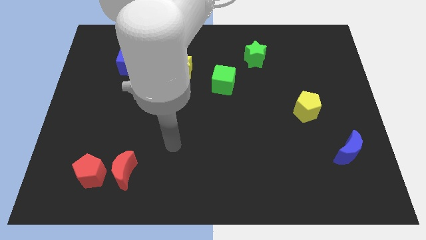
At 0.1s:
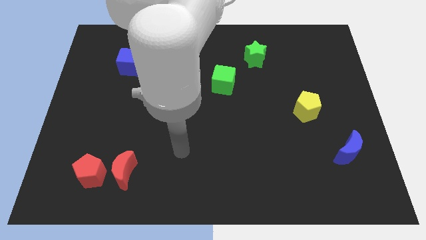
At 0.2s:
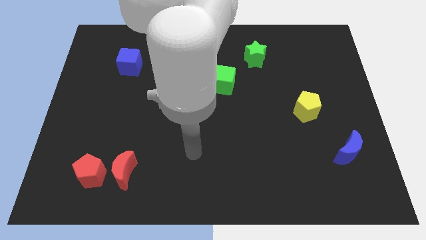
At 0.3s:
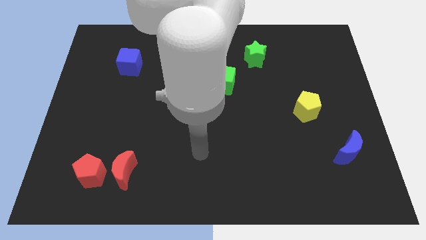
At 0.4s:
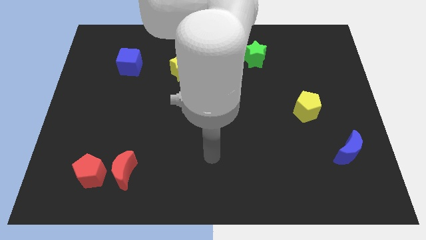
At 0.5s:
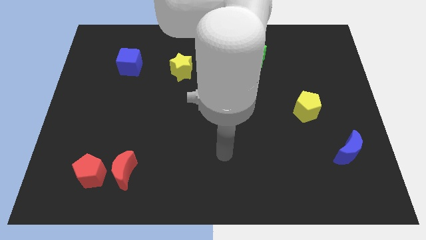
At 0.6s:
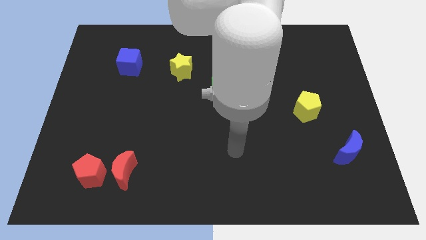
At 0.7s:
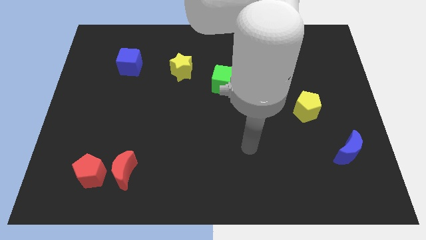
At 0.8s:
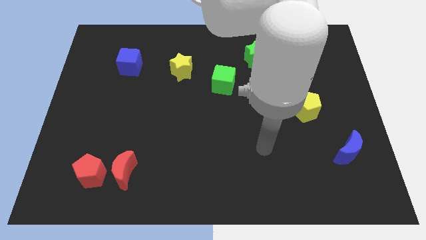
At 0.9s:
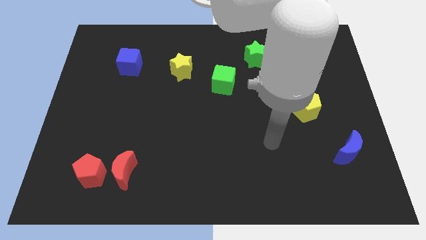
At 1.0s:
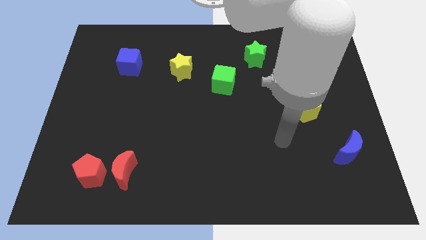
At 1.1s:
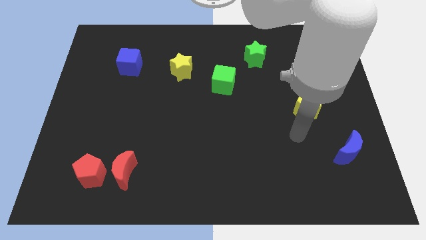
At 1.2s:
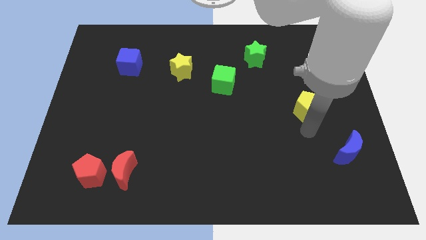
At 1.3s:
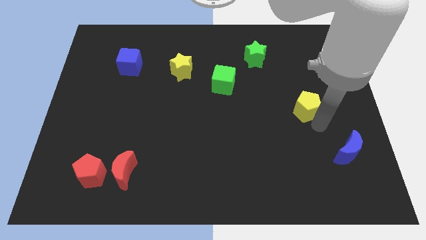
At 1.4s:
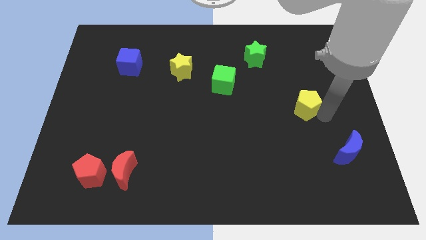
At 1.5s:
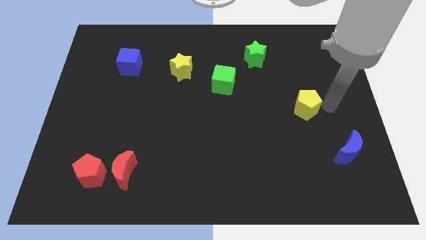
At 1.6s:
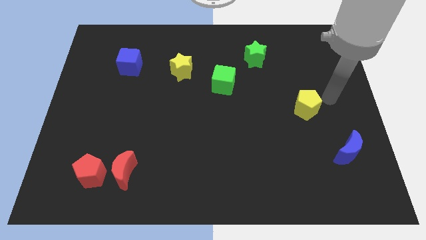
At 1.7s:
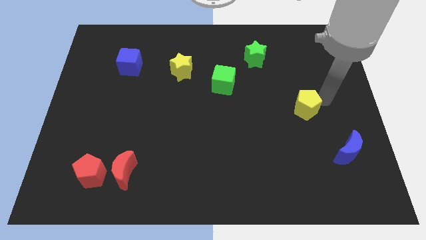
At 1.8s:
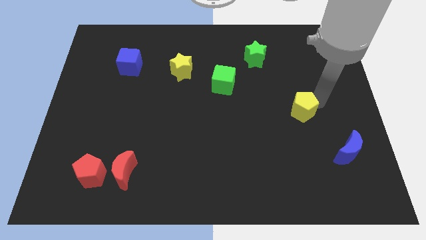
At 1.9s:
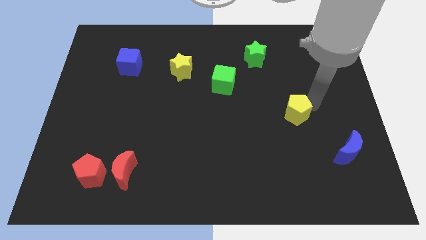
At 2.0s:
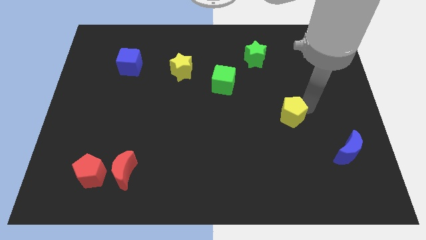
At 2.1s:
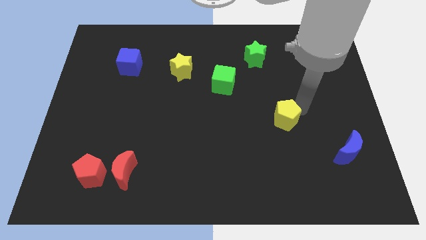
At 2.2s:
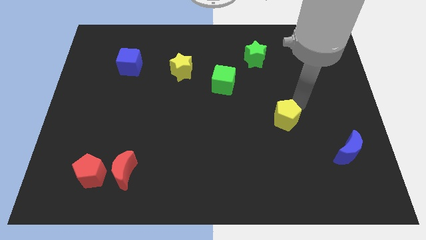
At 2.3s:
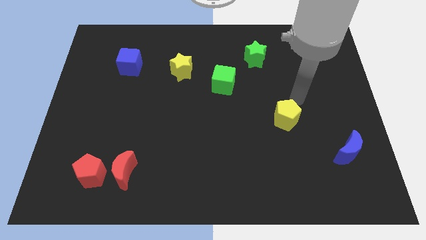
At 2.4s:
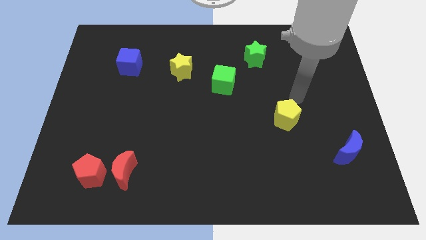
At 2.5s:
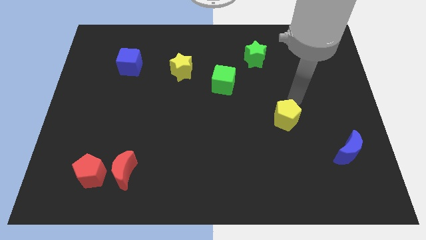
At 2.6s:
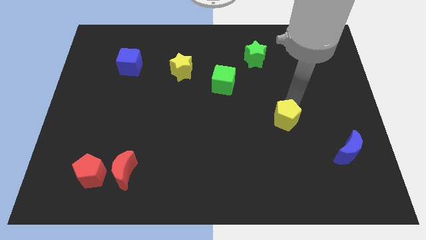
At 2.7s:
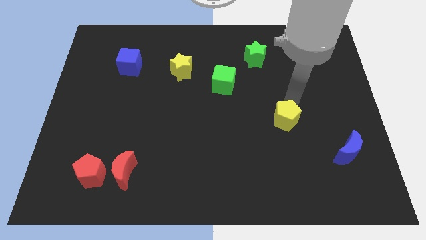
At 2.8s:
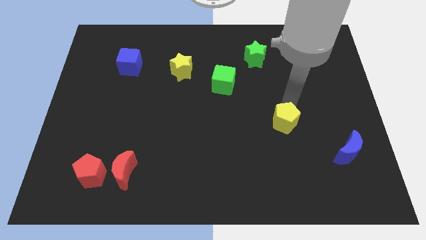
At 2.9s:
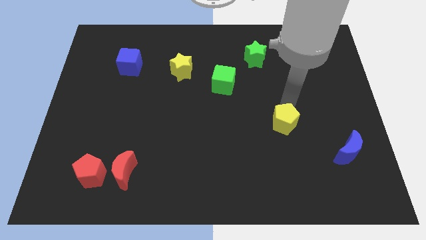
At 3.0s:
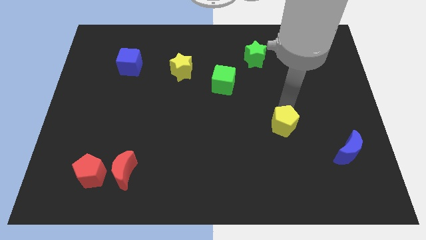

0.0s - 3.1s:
push the yellow pentagon a little downwards and left

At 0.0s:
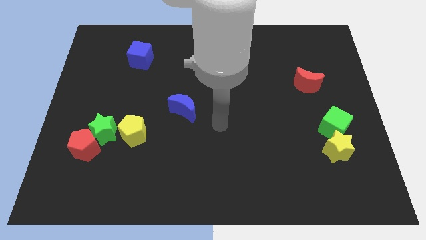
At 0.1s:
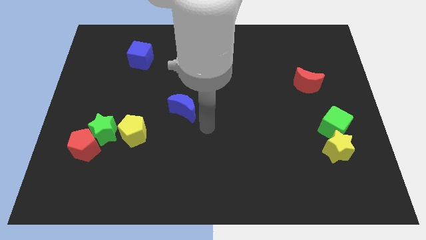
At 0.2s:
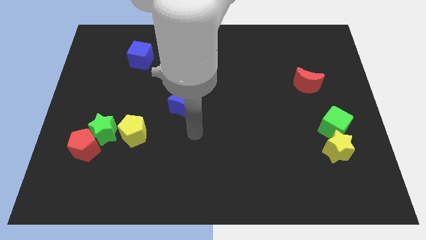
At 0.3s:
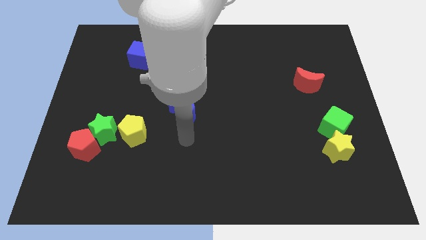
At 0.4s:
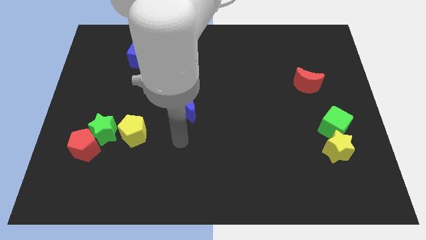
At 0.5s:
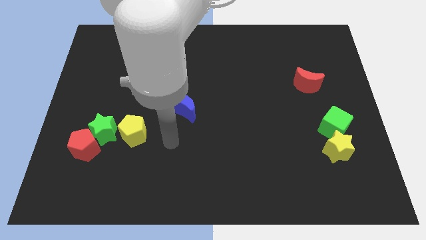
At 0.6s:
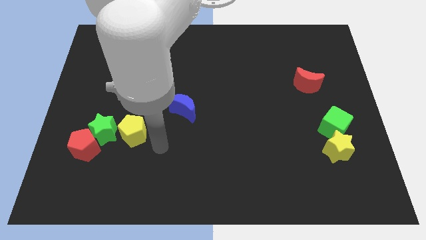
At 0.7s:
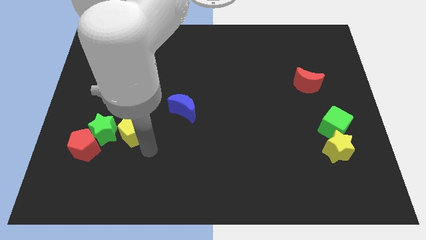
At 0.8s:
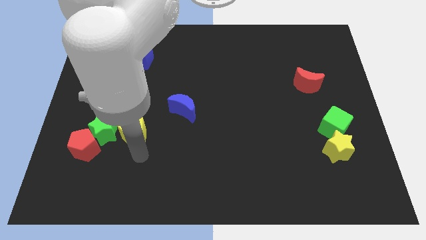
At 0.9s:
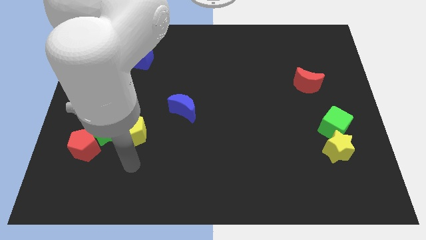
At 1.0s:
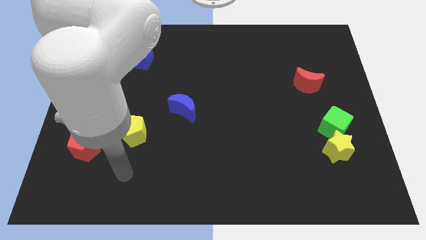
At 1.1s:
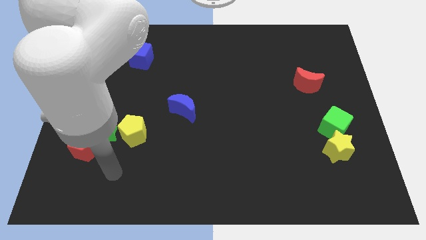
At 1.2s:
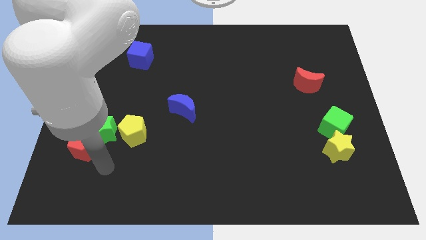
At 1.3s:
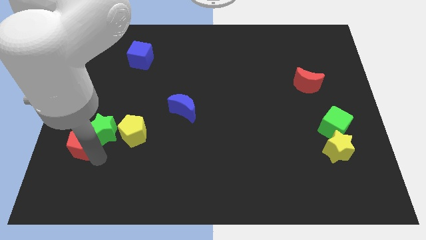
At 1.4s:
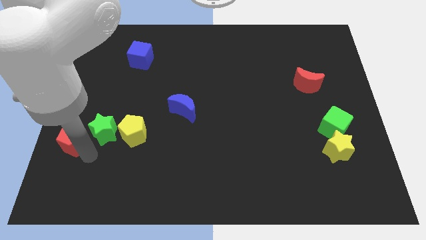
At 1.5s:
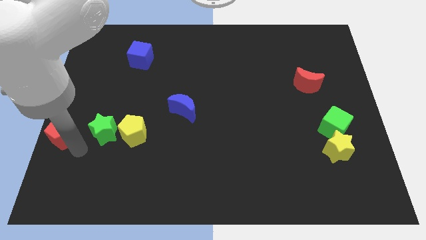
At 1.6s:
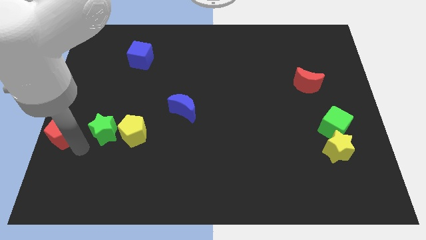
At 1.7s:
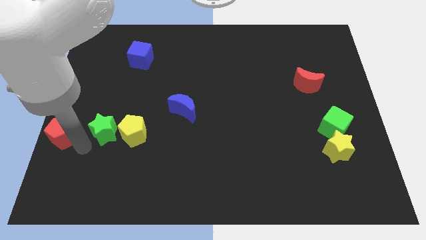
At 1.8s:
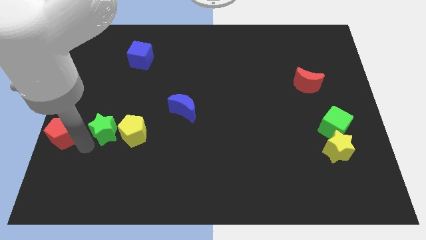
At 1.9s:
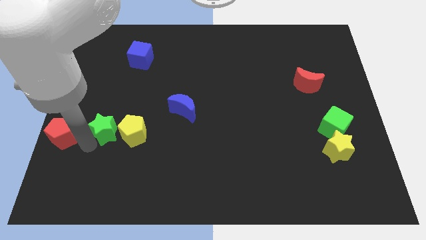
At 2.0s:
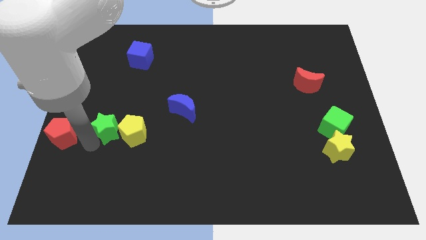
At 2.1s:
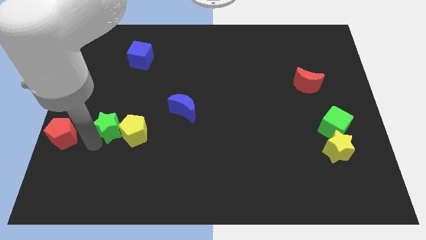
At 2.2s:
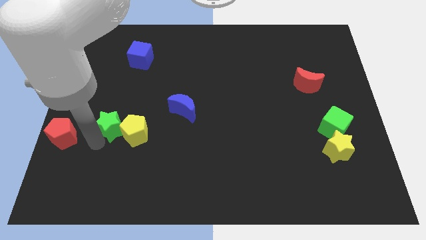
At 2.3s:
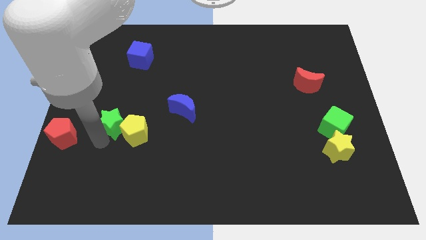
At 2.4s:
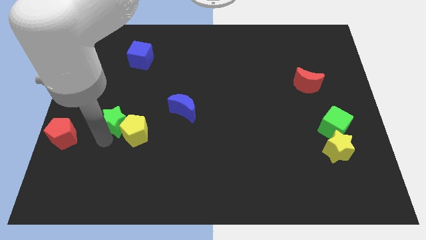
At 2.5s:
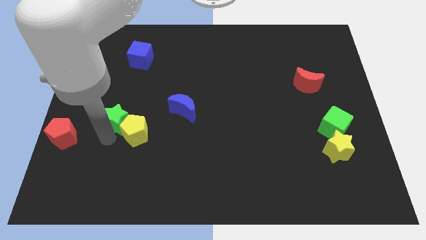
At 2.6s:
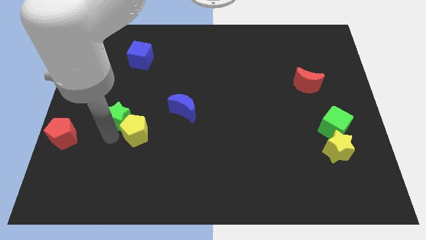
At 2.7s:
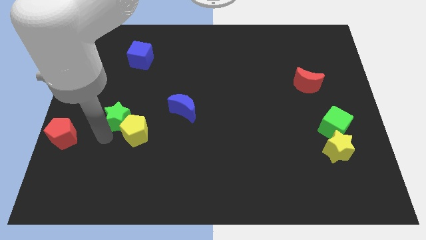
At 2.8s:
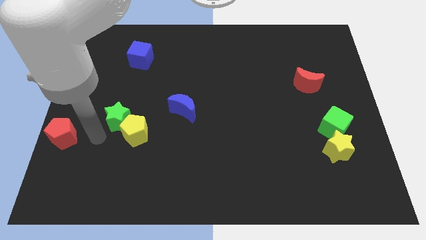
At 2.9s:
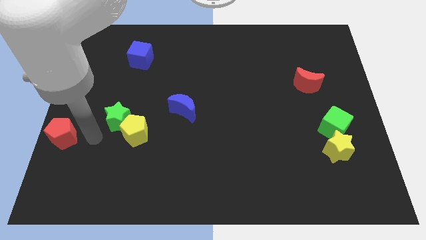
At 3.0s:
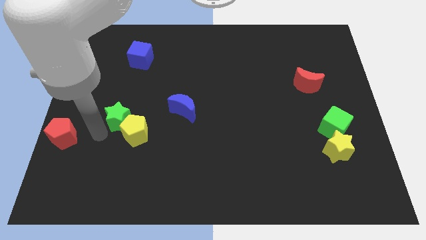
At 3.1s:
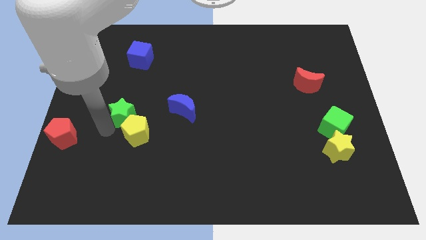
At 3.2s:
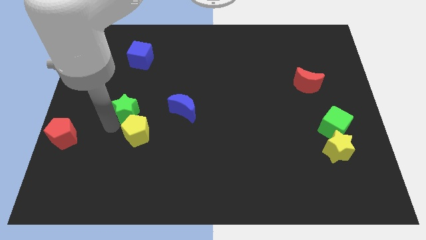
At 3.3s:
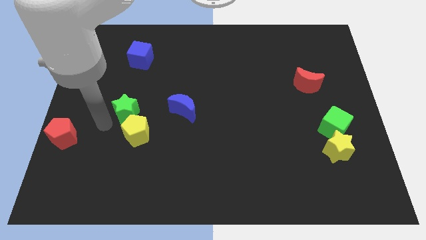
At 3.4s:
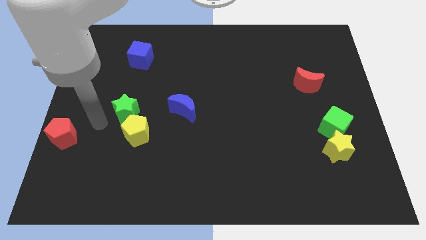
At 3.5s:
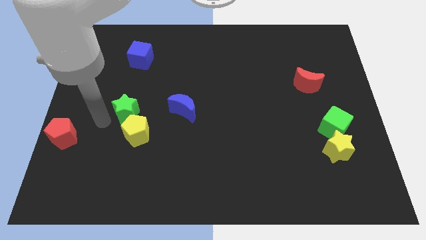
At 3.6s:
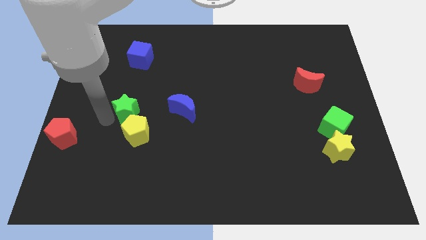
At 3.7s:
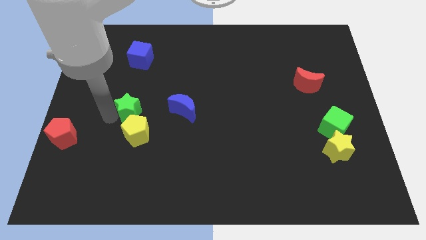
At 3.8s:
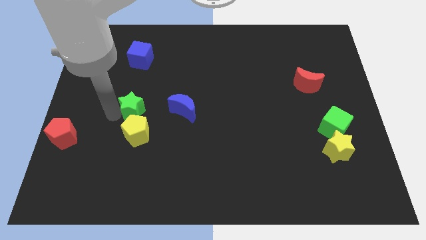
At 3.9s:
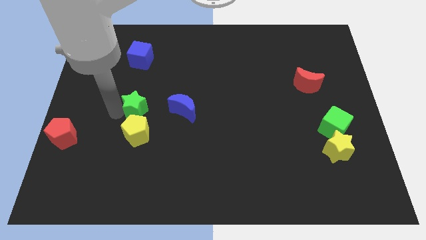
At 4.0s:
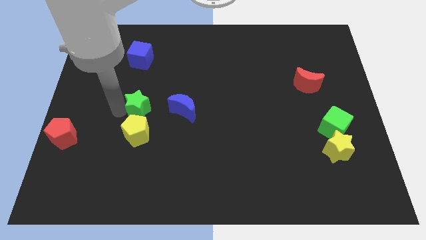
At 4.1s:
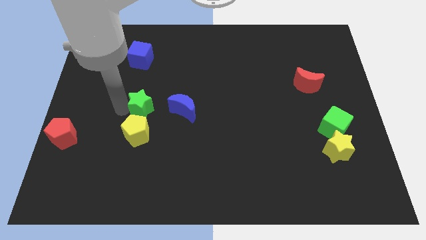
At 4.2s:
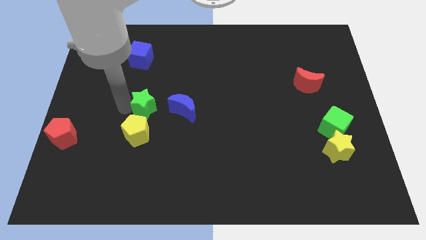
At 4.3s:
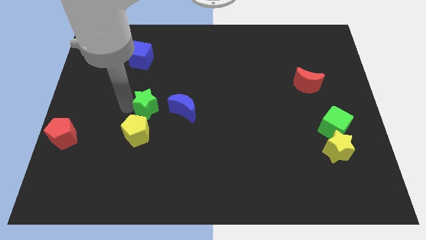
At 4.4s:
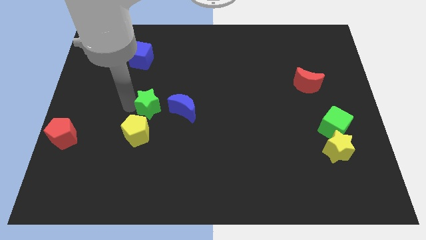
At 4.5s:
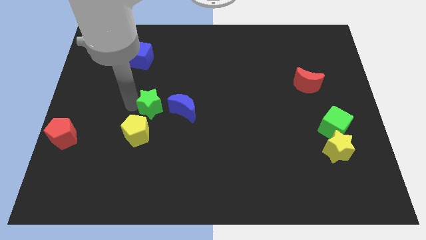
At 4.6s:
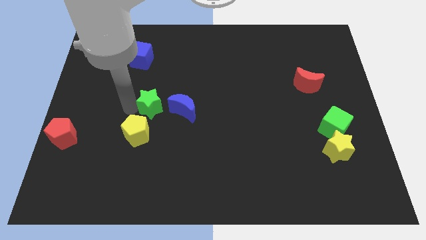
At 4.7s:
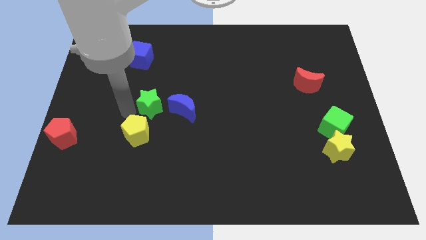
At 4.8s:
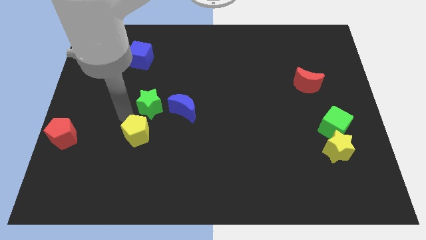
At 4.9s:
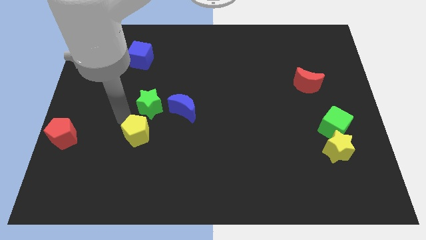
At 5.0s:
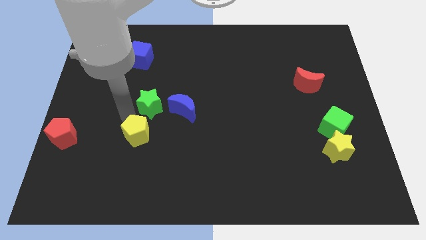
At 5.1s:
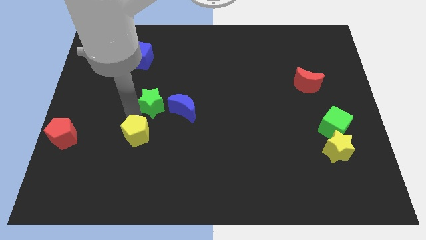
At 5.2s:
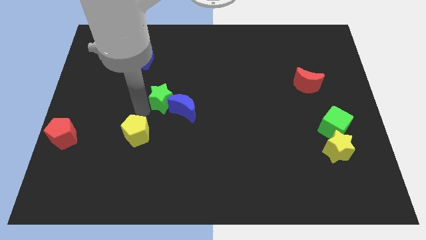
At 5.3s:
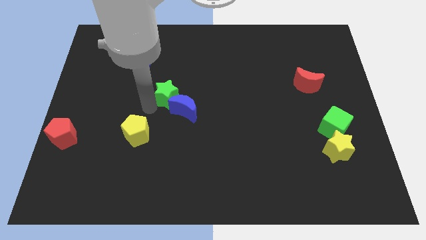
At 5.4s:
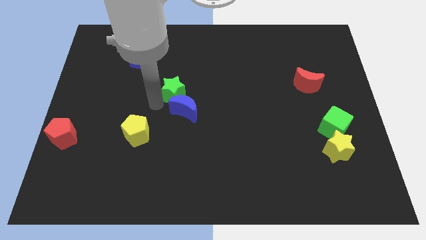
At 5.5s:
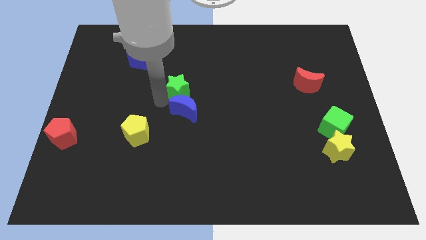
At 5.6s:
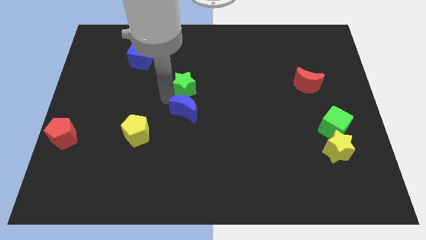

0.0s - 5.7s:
push the green star upwards and right diagonally
